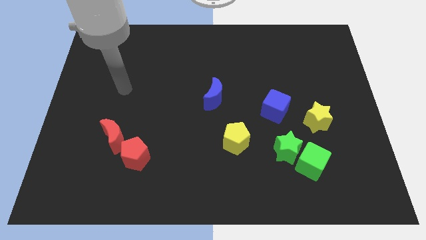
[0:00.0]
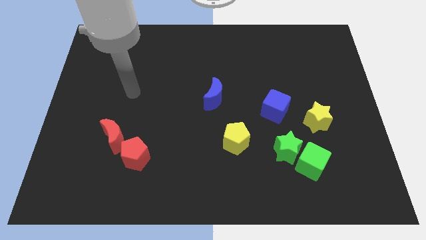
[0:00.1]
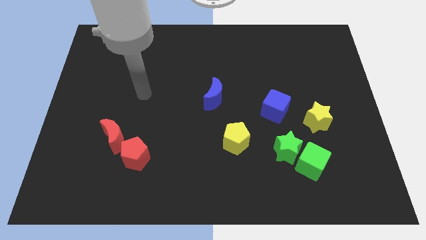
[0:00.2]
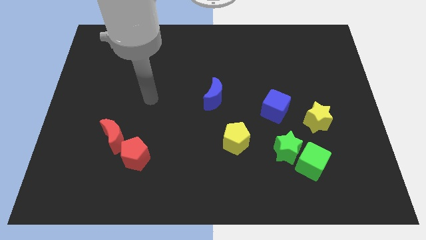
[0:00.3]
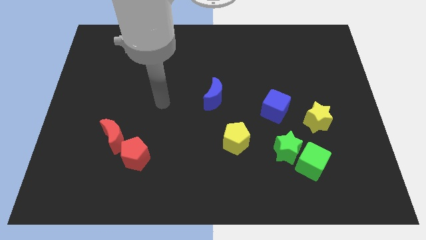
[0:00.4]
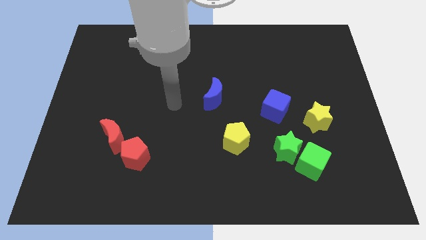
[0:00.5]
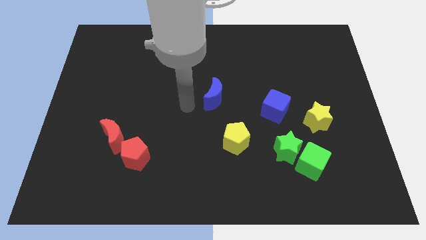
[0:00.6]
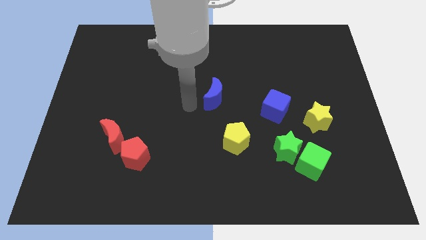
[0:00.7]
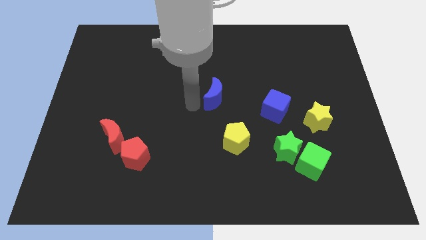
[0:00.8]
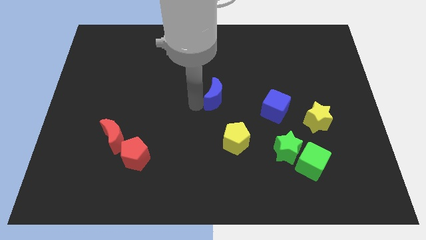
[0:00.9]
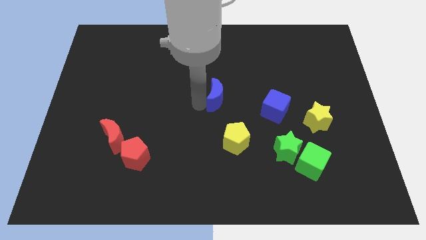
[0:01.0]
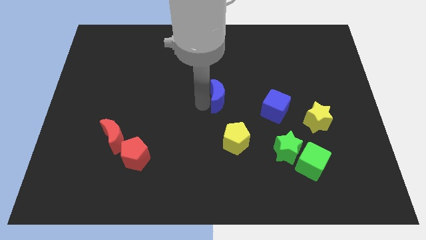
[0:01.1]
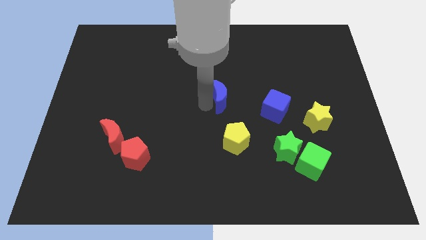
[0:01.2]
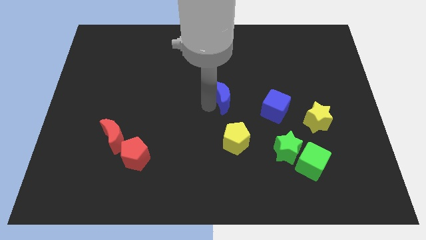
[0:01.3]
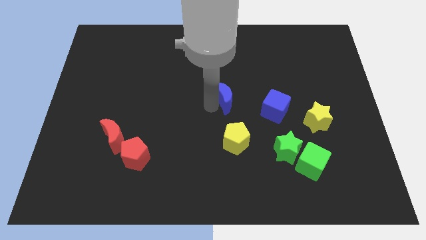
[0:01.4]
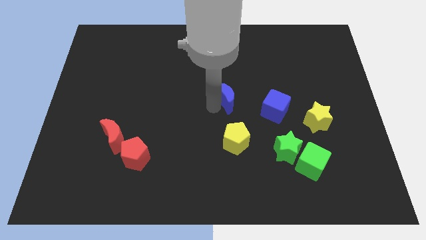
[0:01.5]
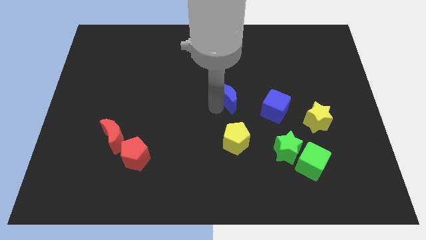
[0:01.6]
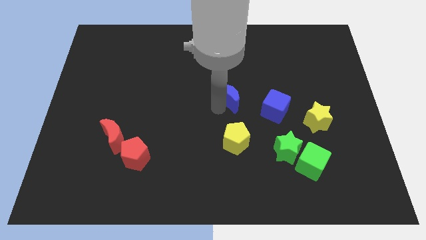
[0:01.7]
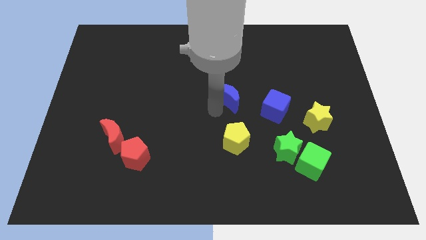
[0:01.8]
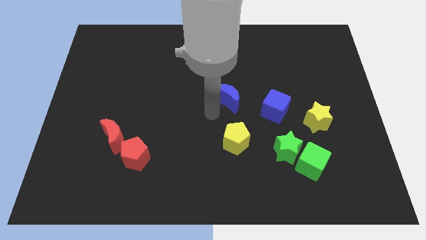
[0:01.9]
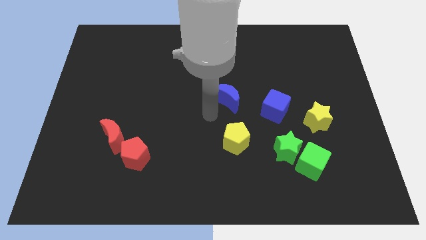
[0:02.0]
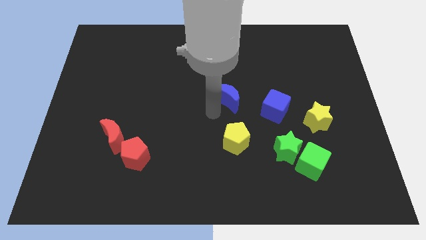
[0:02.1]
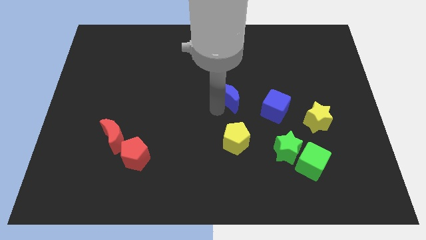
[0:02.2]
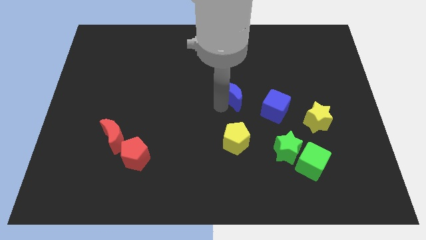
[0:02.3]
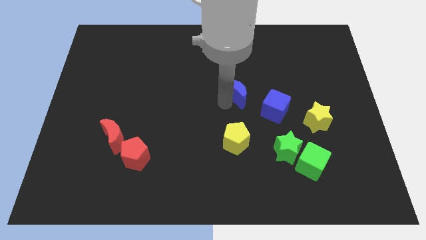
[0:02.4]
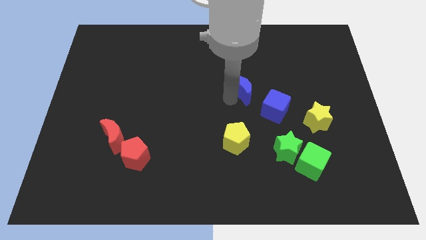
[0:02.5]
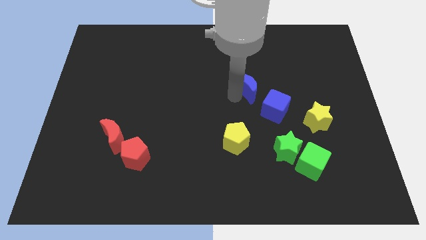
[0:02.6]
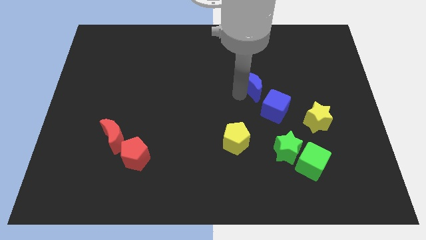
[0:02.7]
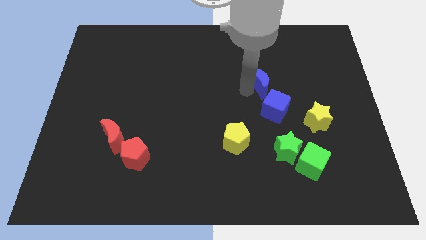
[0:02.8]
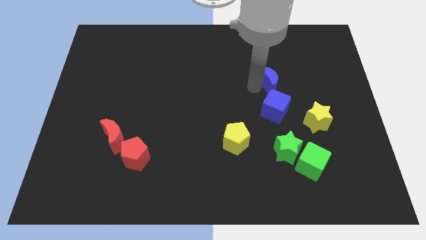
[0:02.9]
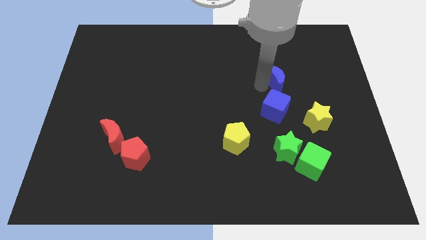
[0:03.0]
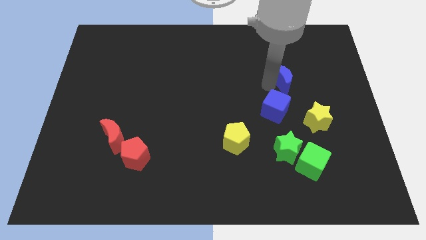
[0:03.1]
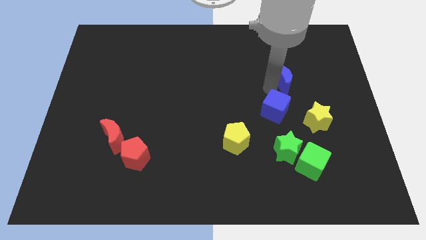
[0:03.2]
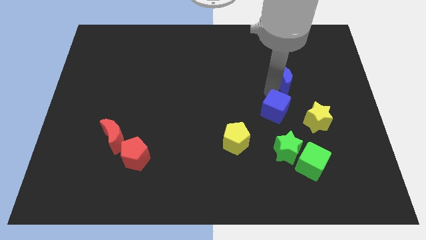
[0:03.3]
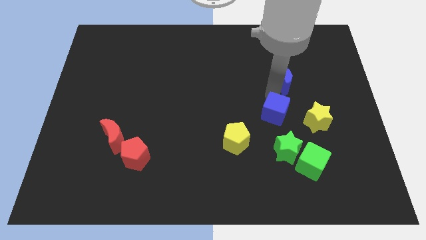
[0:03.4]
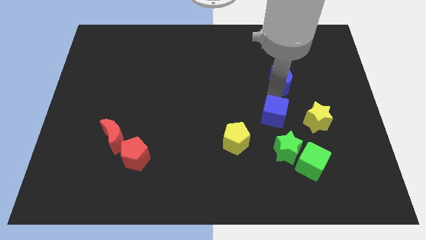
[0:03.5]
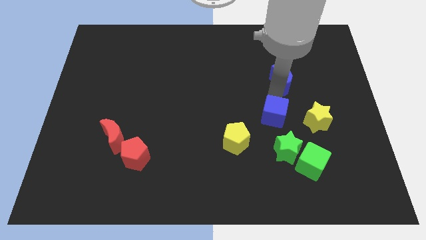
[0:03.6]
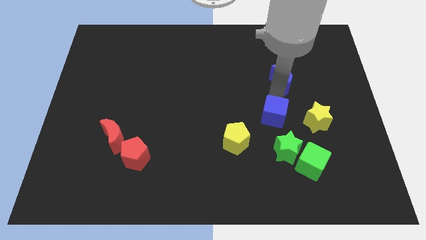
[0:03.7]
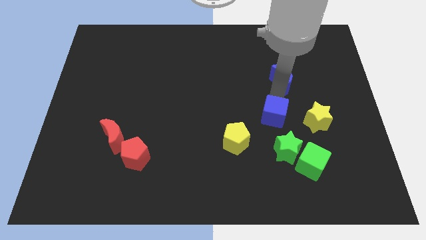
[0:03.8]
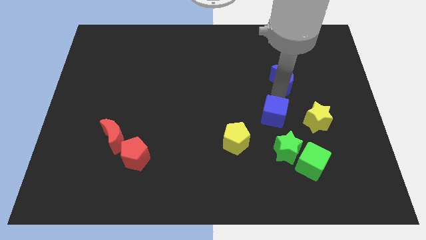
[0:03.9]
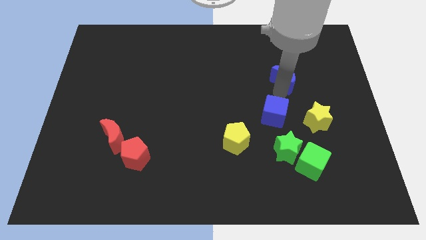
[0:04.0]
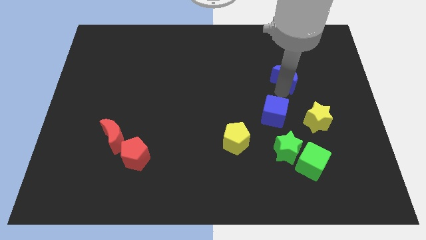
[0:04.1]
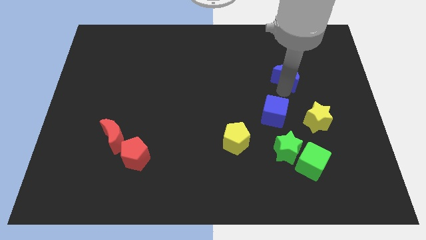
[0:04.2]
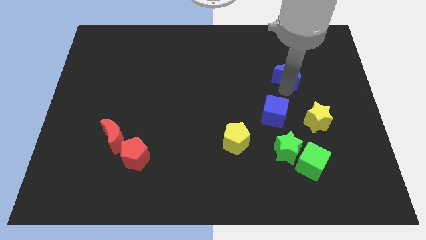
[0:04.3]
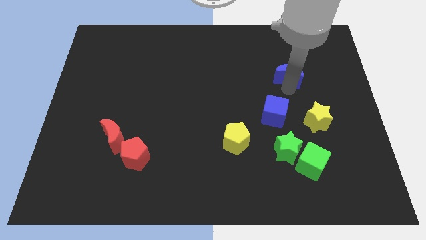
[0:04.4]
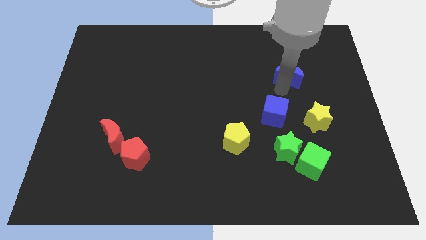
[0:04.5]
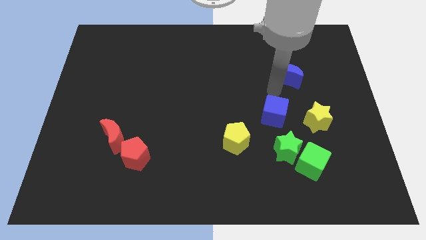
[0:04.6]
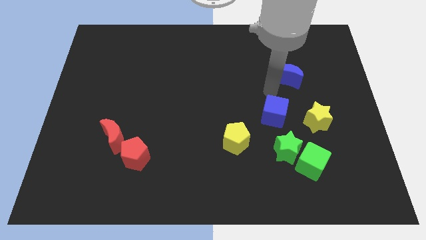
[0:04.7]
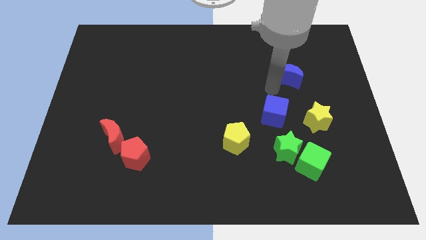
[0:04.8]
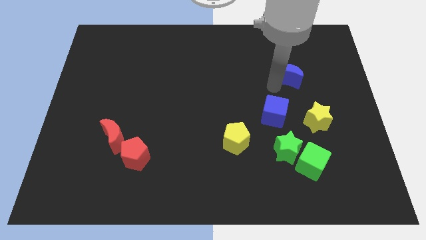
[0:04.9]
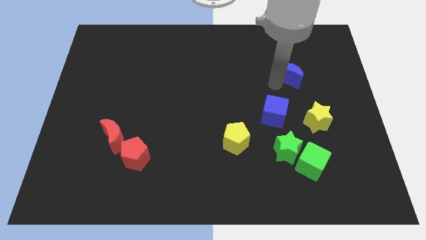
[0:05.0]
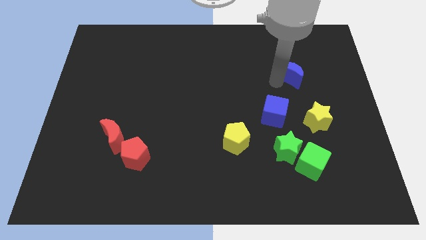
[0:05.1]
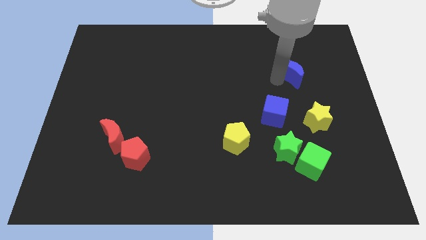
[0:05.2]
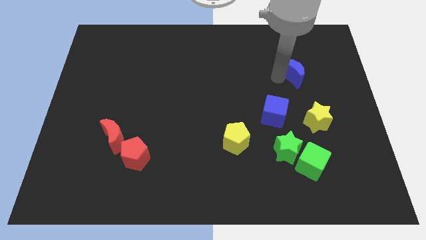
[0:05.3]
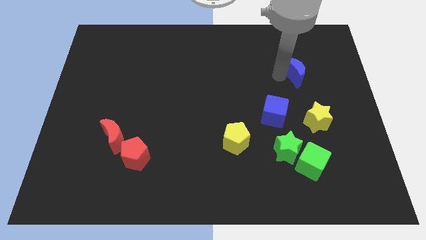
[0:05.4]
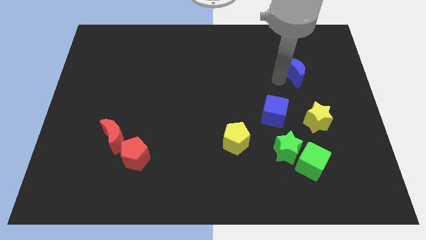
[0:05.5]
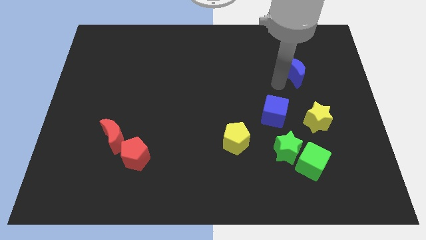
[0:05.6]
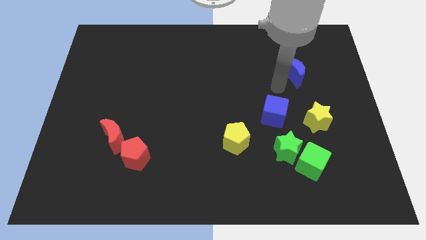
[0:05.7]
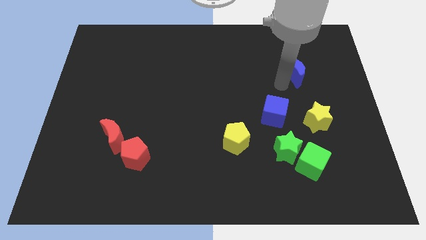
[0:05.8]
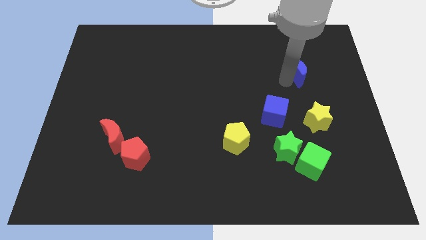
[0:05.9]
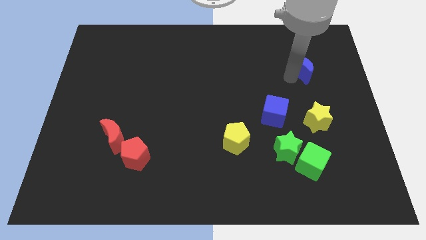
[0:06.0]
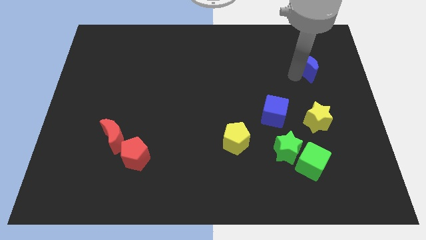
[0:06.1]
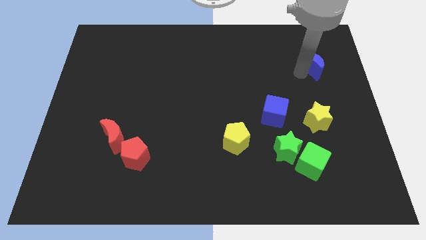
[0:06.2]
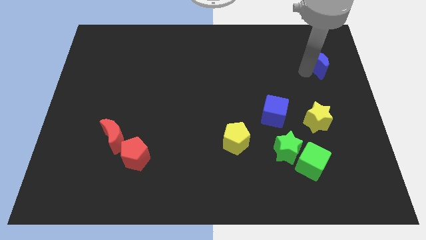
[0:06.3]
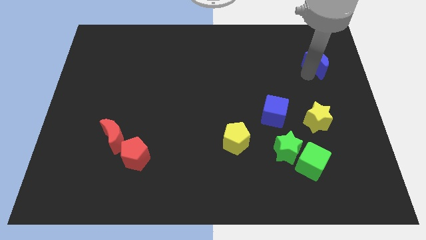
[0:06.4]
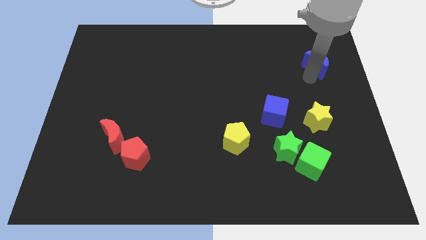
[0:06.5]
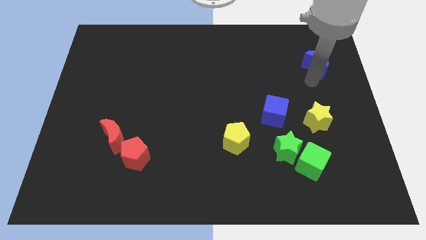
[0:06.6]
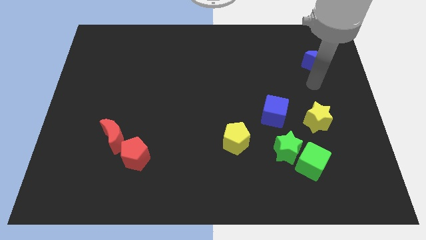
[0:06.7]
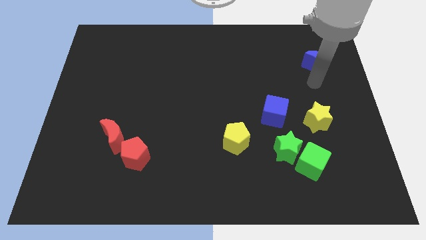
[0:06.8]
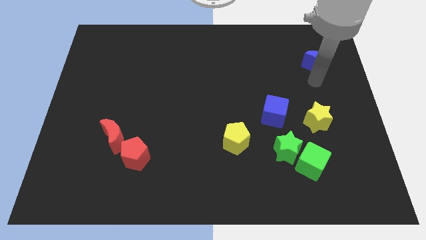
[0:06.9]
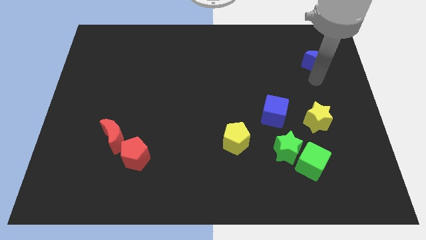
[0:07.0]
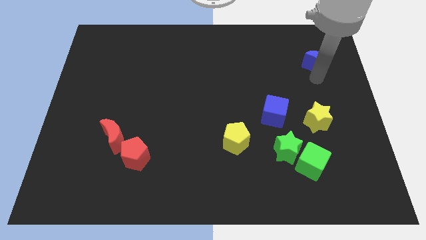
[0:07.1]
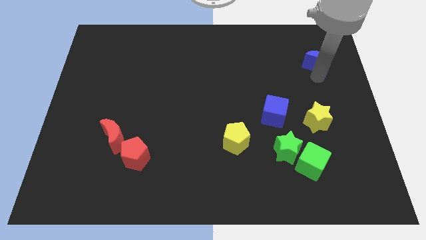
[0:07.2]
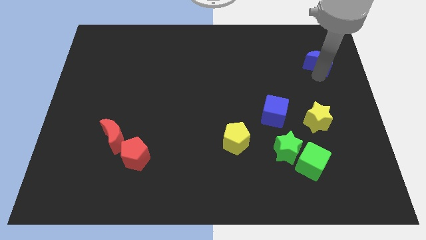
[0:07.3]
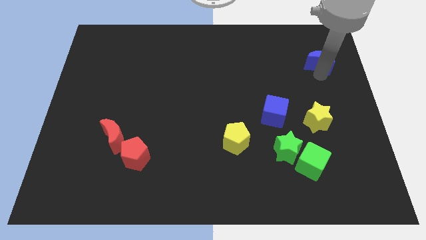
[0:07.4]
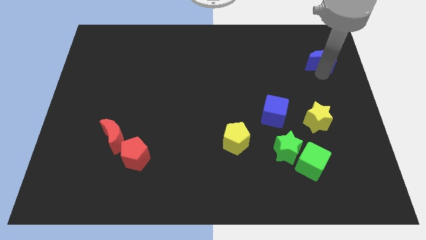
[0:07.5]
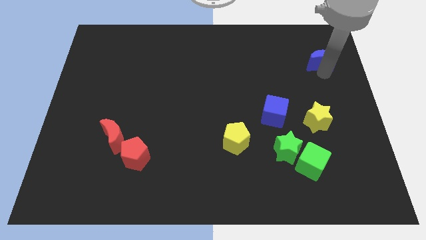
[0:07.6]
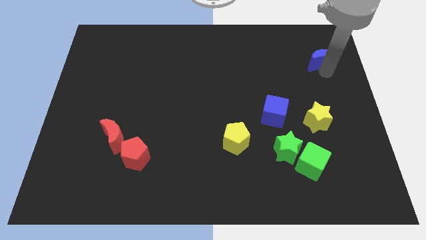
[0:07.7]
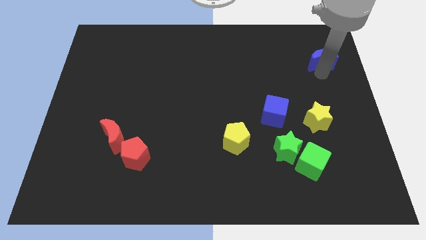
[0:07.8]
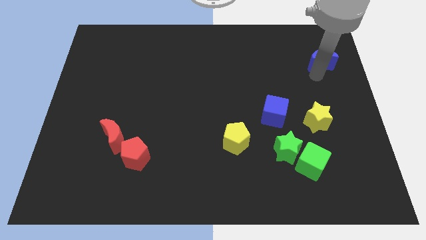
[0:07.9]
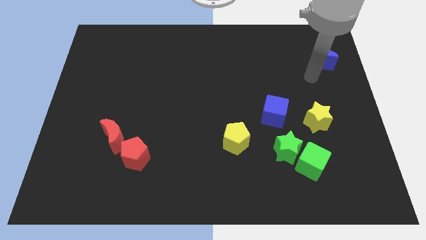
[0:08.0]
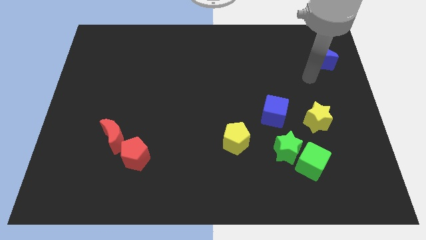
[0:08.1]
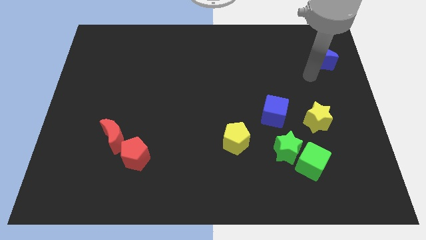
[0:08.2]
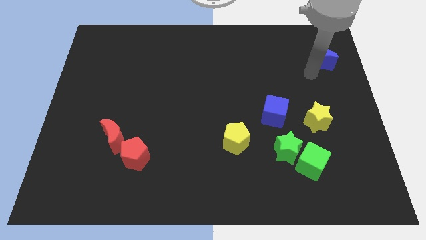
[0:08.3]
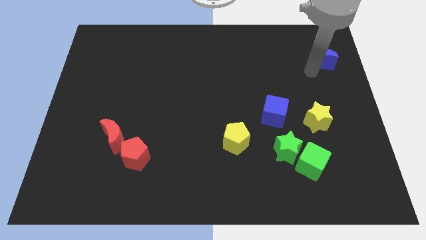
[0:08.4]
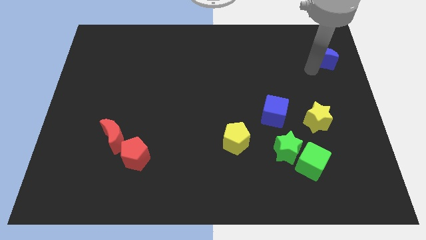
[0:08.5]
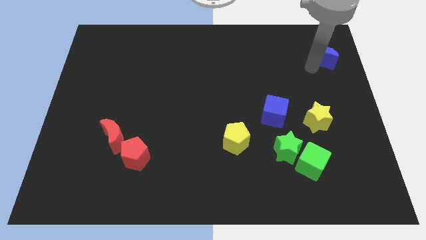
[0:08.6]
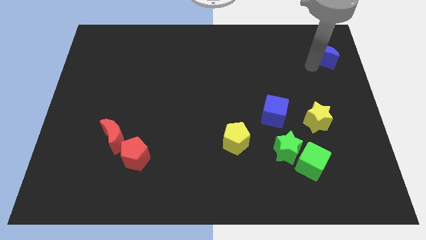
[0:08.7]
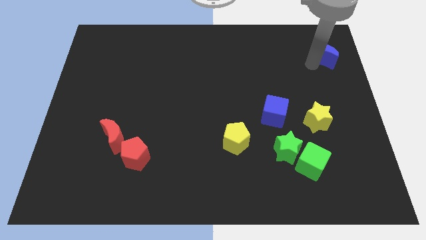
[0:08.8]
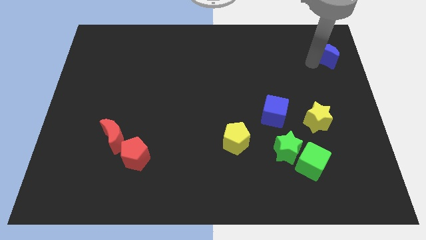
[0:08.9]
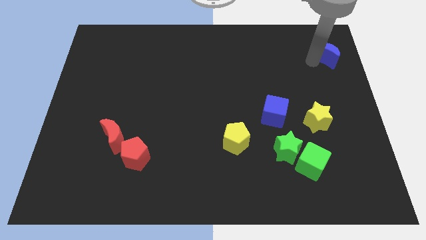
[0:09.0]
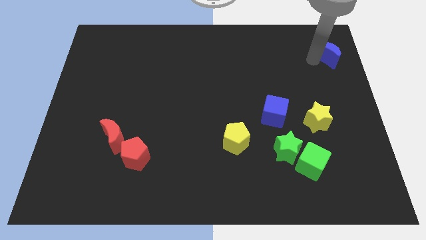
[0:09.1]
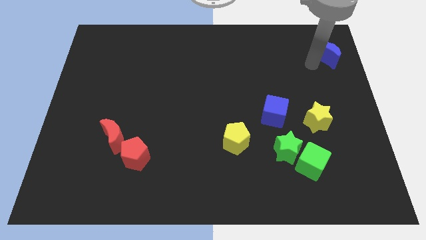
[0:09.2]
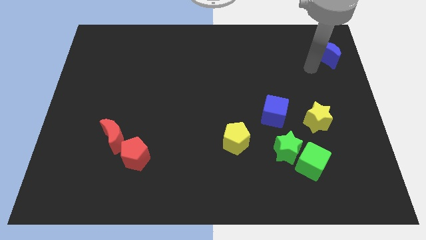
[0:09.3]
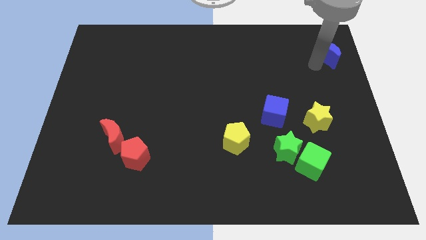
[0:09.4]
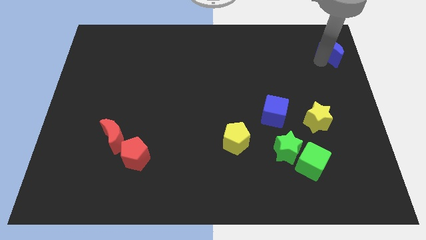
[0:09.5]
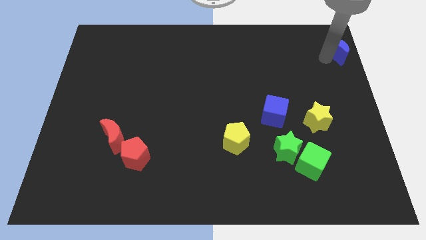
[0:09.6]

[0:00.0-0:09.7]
slide the blue moon to the upper right corner
